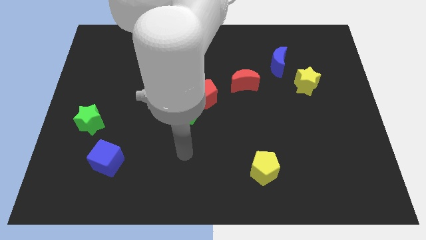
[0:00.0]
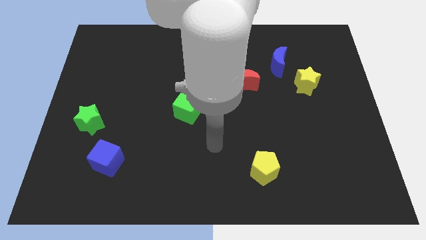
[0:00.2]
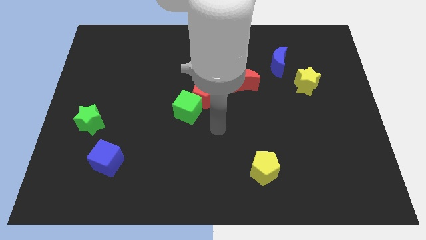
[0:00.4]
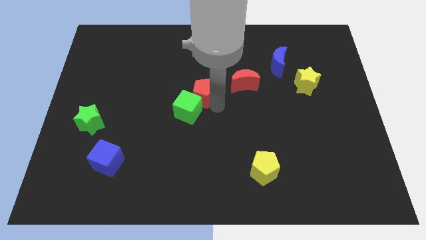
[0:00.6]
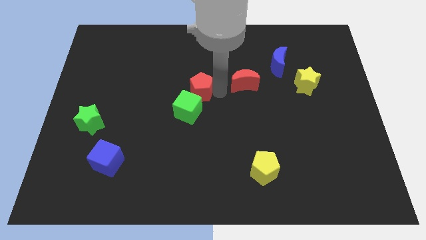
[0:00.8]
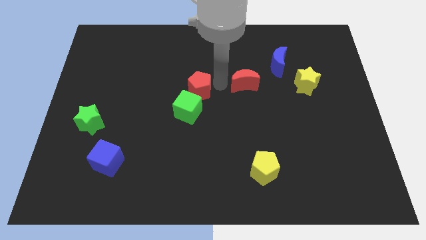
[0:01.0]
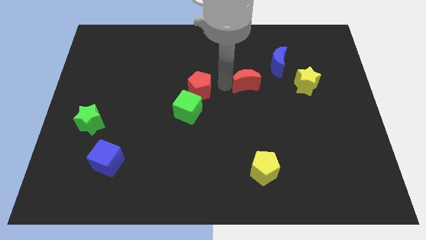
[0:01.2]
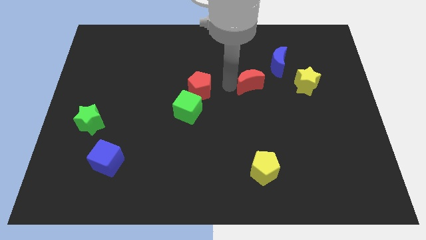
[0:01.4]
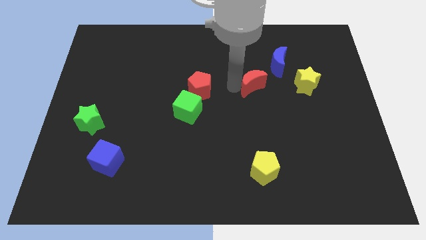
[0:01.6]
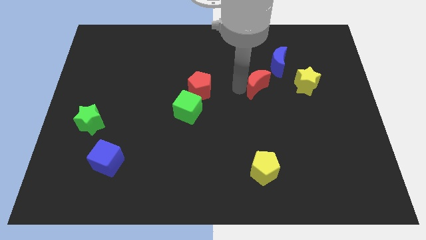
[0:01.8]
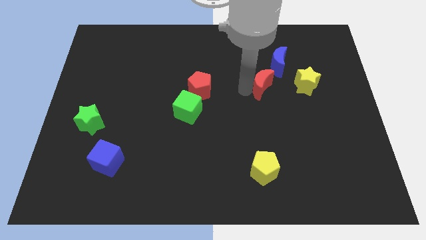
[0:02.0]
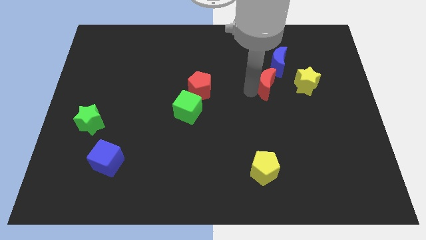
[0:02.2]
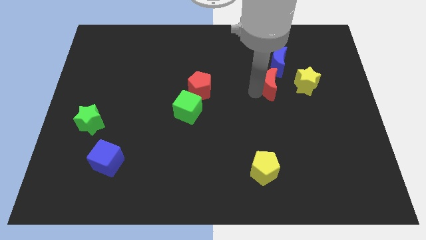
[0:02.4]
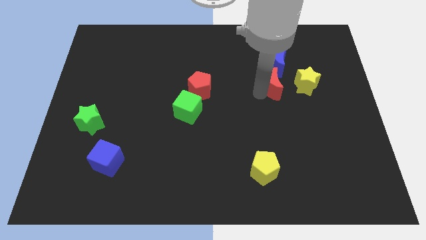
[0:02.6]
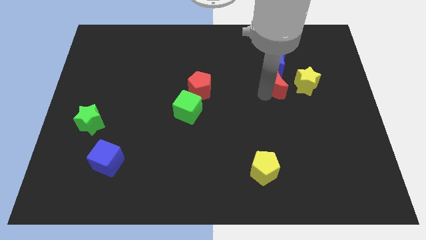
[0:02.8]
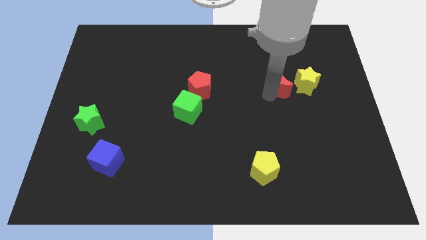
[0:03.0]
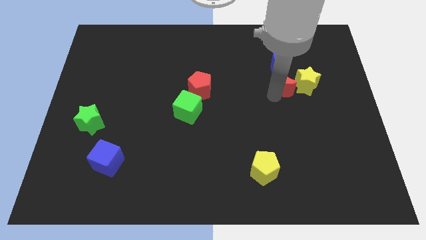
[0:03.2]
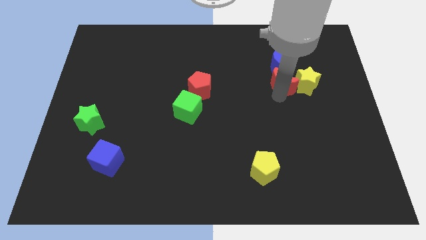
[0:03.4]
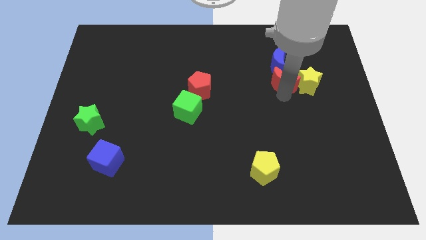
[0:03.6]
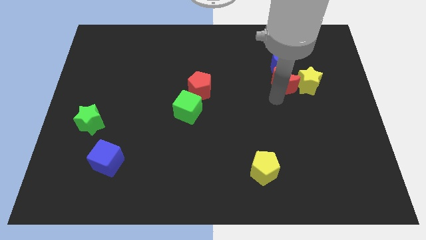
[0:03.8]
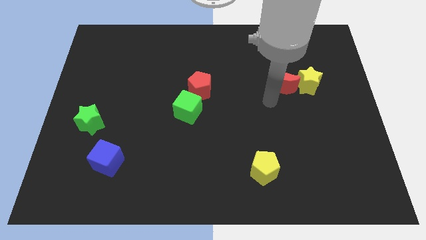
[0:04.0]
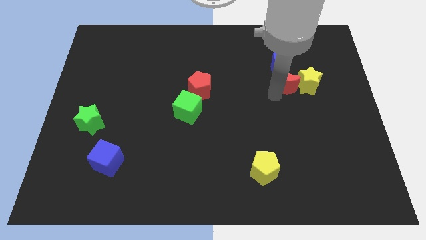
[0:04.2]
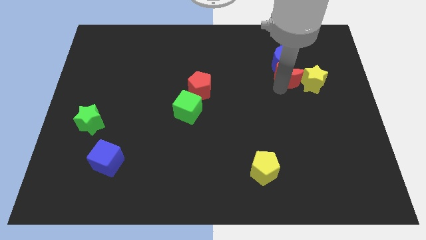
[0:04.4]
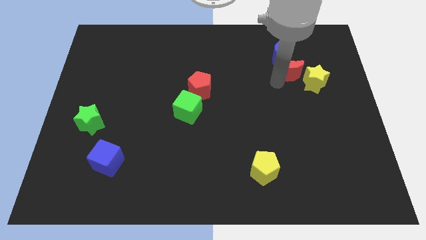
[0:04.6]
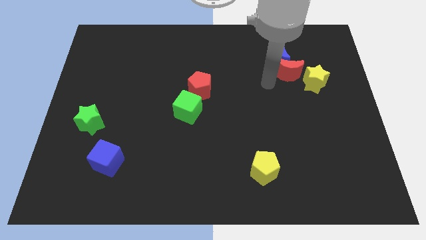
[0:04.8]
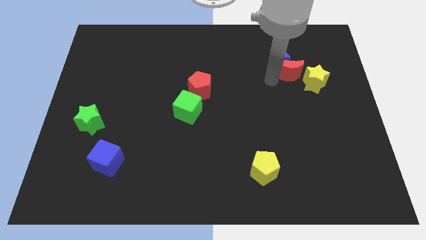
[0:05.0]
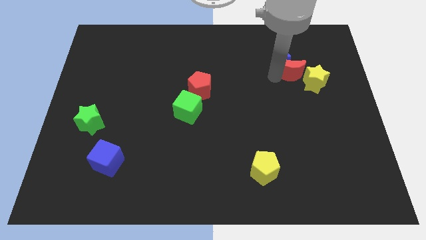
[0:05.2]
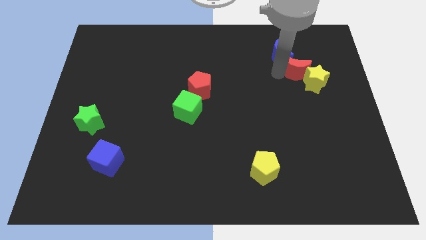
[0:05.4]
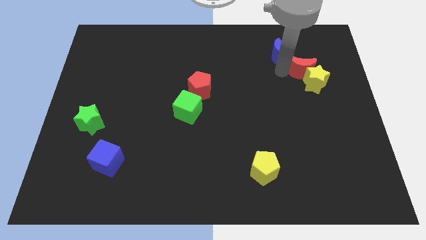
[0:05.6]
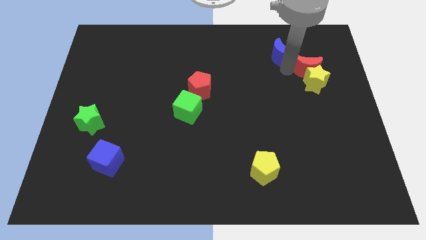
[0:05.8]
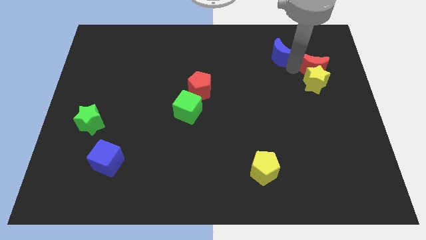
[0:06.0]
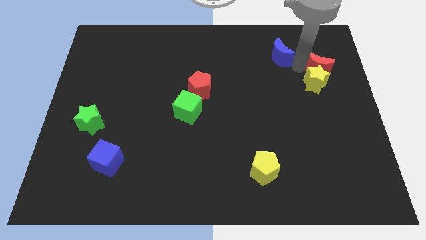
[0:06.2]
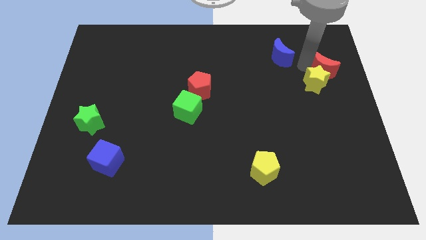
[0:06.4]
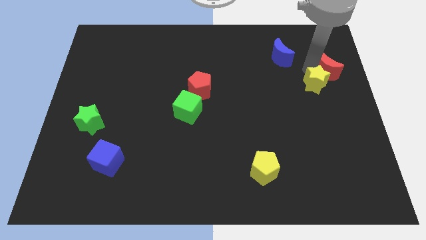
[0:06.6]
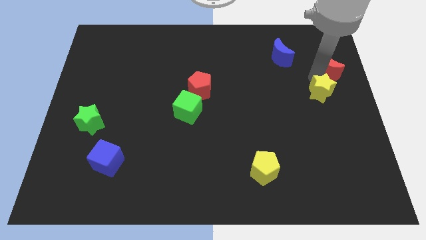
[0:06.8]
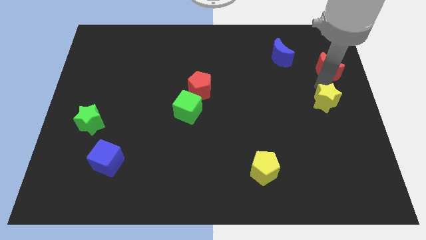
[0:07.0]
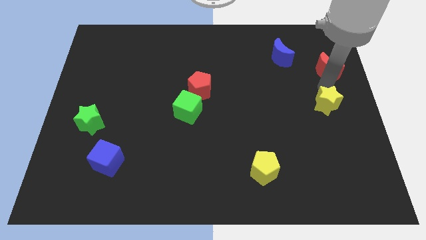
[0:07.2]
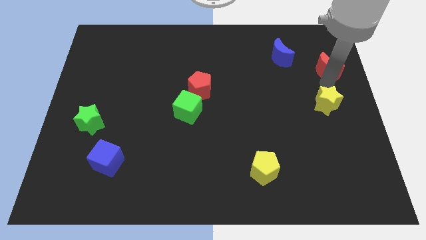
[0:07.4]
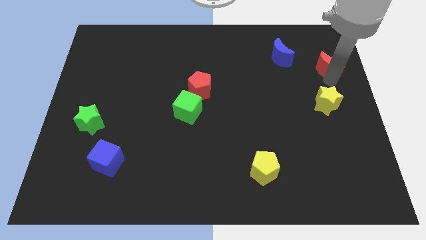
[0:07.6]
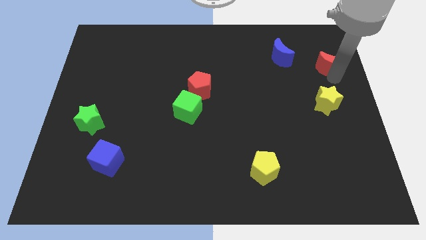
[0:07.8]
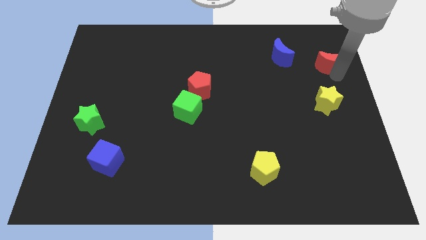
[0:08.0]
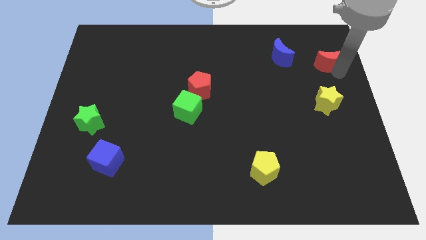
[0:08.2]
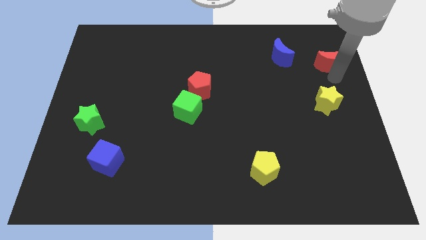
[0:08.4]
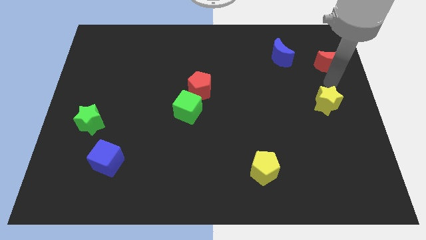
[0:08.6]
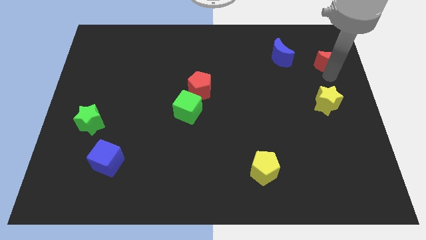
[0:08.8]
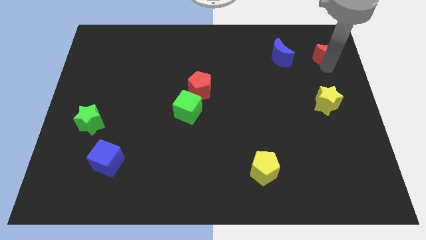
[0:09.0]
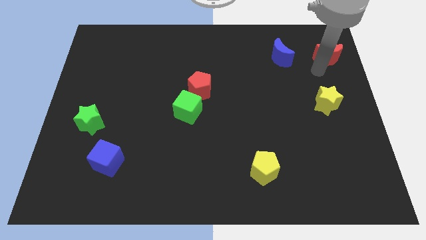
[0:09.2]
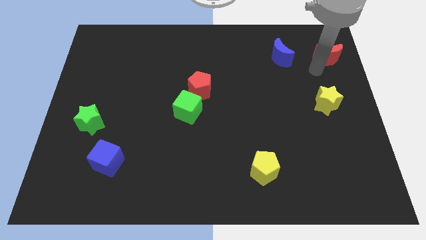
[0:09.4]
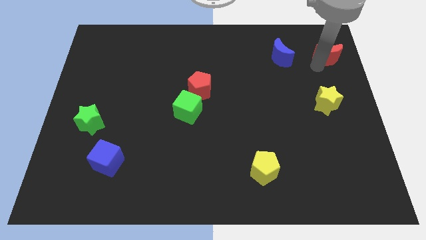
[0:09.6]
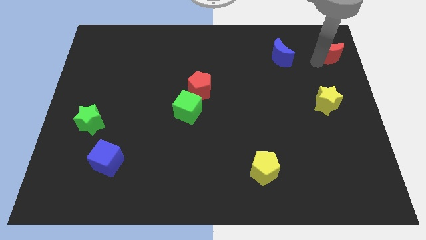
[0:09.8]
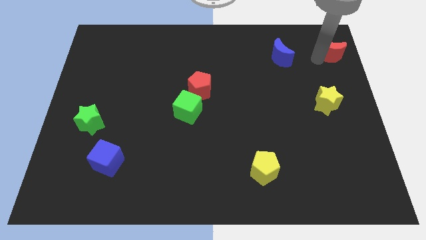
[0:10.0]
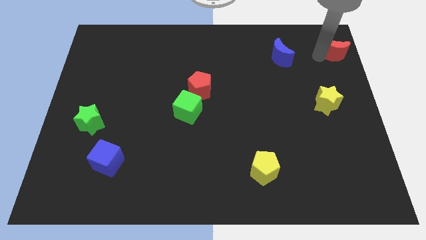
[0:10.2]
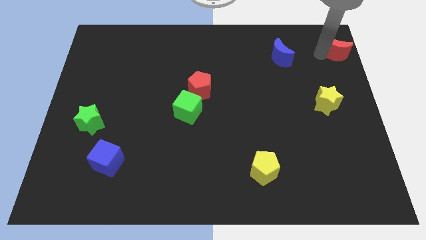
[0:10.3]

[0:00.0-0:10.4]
slide the red moon to the top right corner
